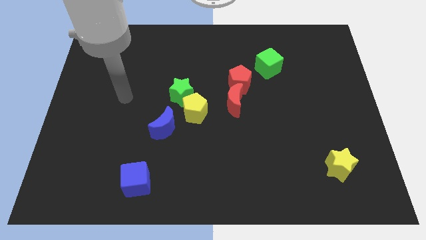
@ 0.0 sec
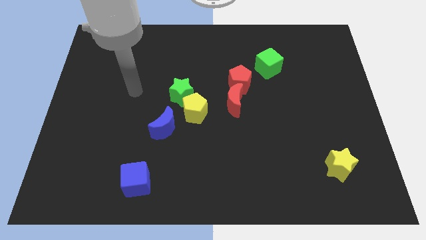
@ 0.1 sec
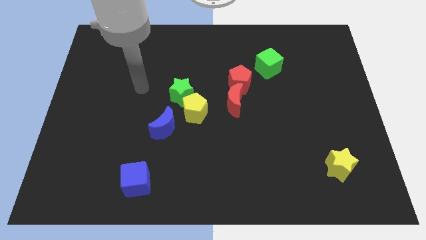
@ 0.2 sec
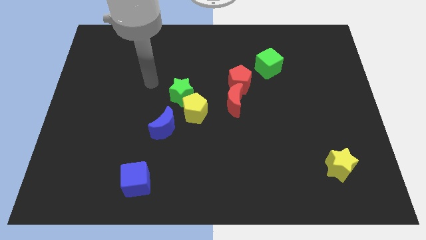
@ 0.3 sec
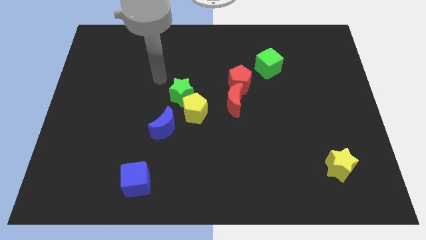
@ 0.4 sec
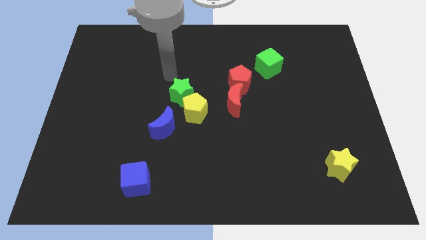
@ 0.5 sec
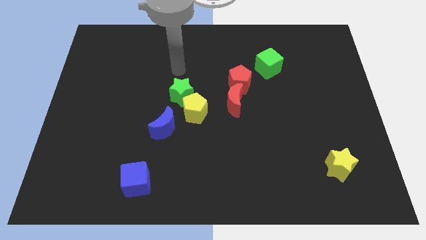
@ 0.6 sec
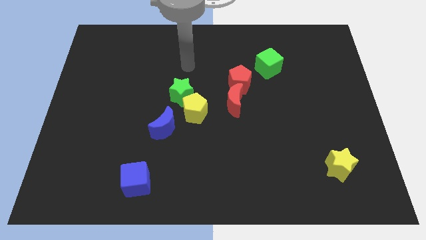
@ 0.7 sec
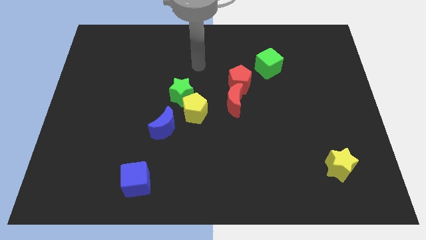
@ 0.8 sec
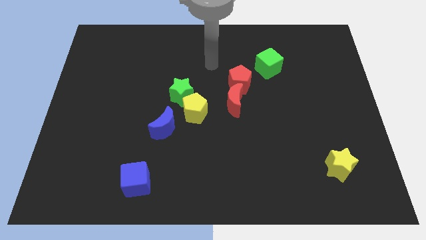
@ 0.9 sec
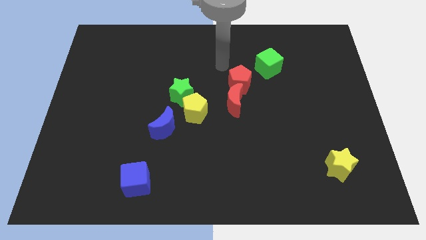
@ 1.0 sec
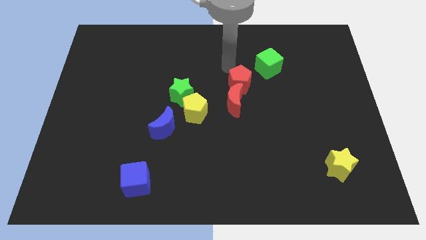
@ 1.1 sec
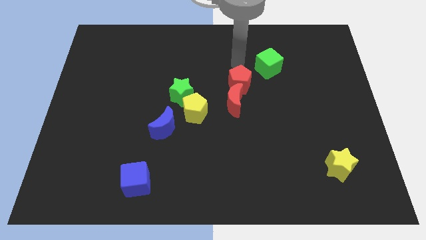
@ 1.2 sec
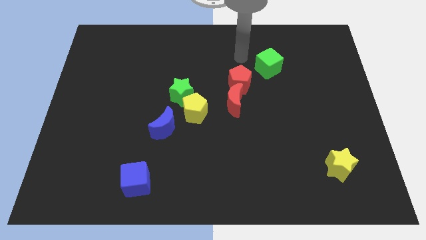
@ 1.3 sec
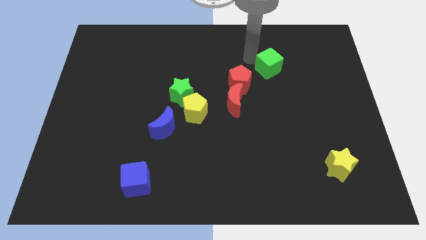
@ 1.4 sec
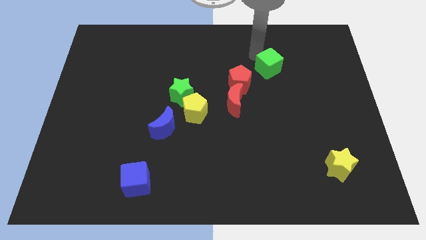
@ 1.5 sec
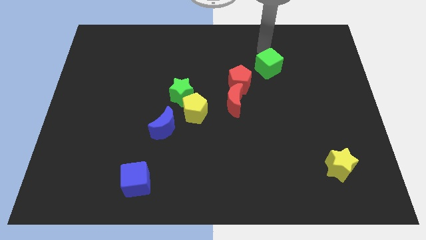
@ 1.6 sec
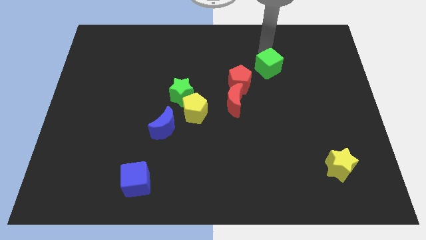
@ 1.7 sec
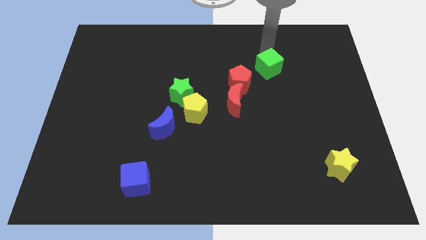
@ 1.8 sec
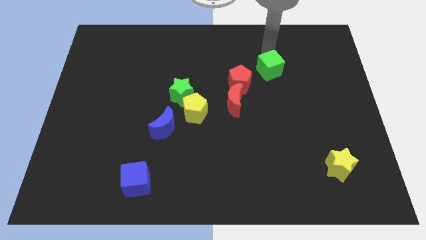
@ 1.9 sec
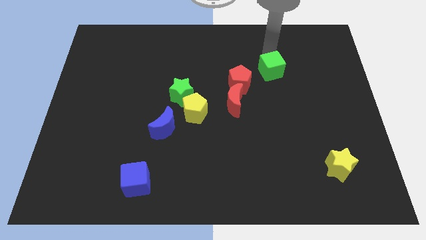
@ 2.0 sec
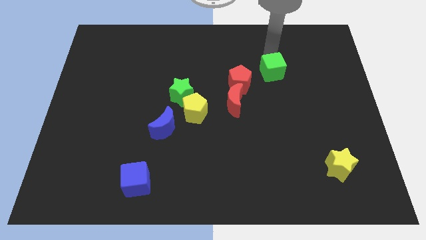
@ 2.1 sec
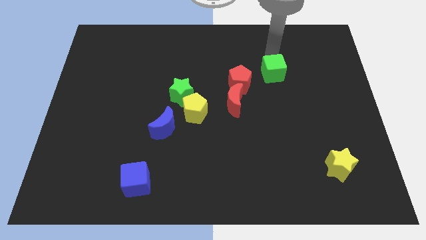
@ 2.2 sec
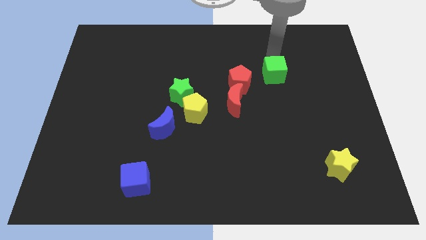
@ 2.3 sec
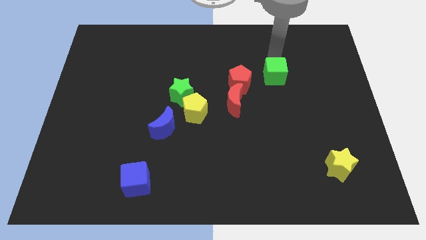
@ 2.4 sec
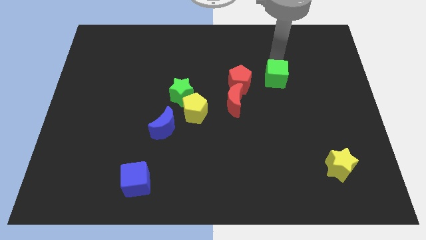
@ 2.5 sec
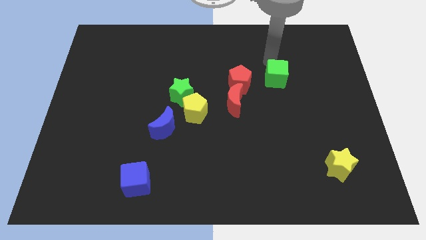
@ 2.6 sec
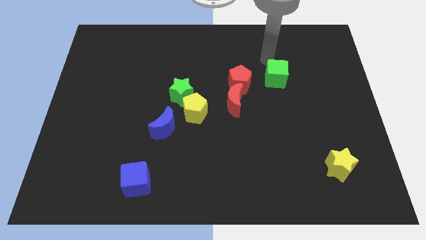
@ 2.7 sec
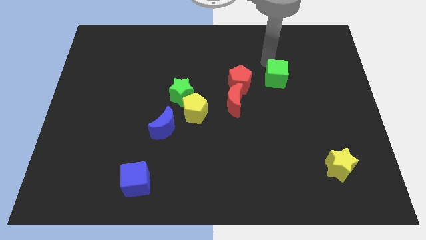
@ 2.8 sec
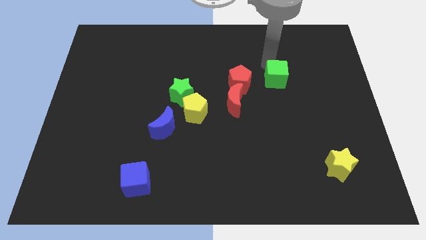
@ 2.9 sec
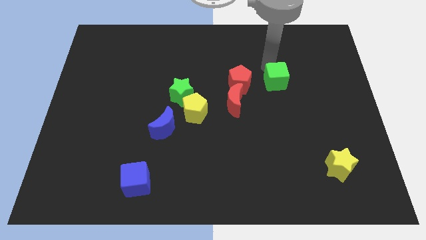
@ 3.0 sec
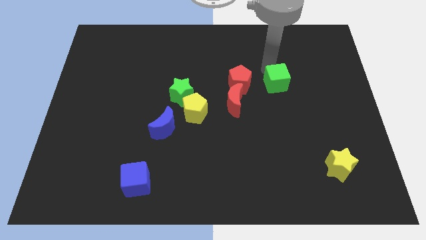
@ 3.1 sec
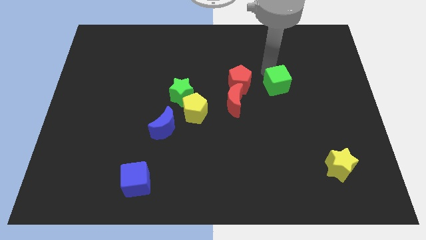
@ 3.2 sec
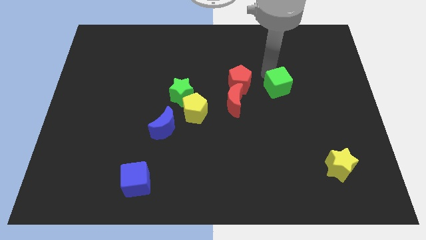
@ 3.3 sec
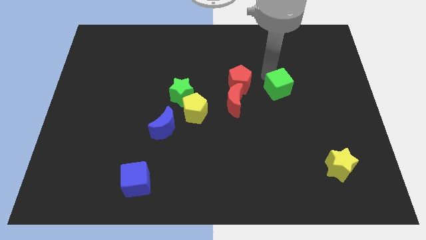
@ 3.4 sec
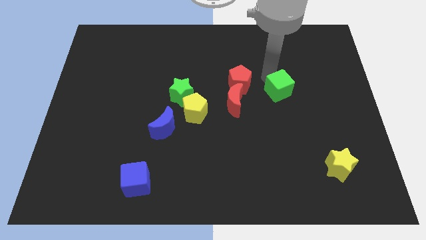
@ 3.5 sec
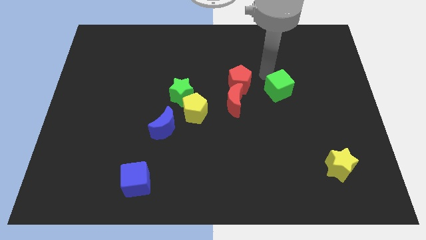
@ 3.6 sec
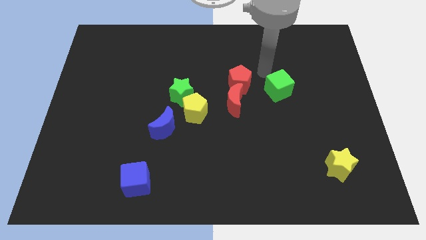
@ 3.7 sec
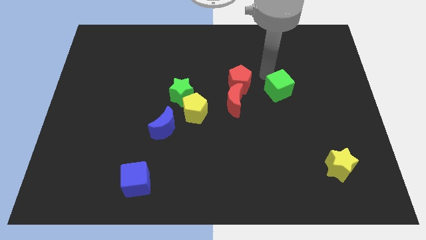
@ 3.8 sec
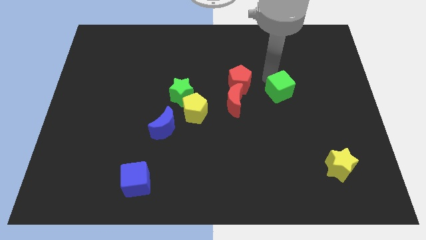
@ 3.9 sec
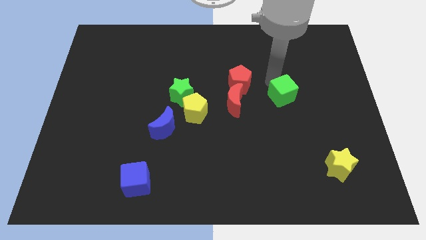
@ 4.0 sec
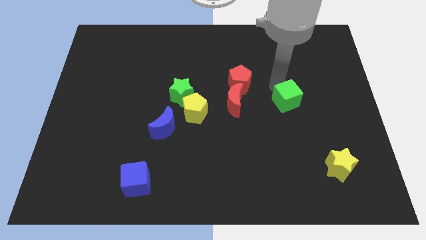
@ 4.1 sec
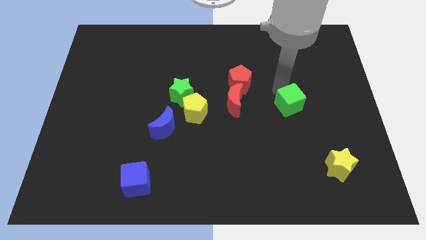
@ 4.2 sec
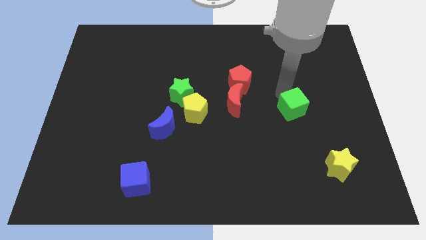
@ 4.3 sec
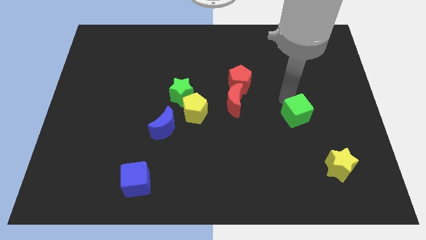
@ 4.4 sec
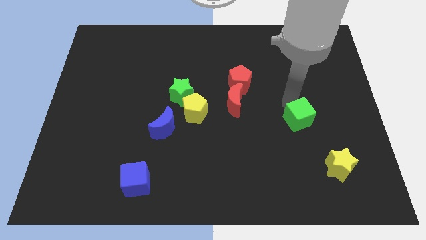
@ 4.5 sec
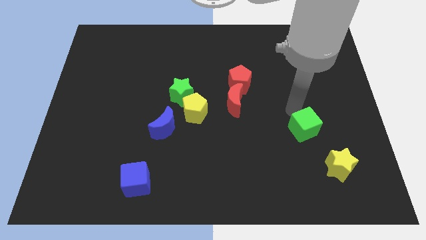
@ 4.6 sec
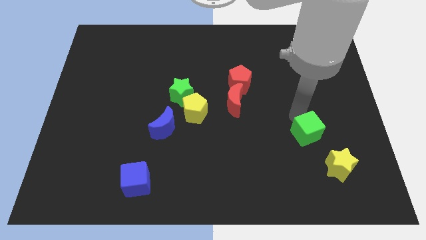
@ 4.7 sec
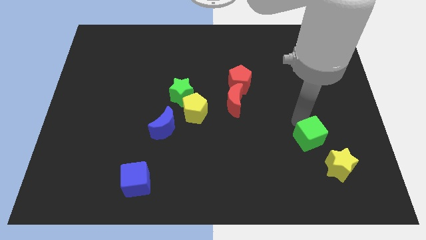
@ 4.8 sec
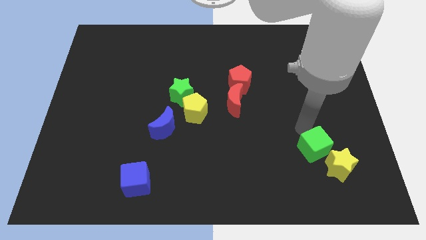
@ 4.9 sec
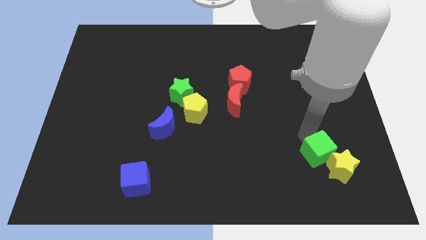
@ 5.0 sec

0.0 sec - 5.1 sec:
move the green cube close to the yellow star

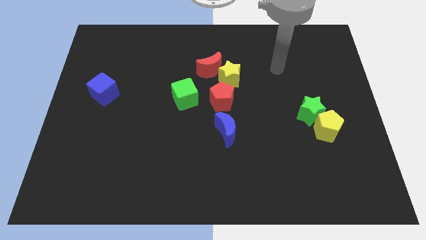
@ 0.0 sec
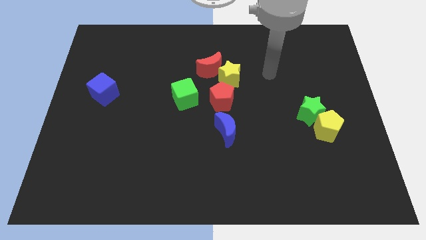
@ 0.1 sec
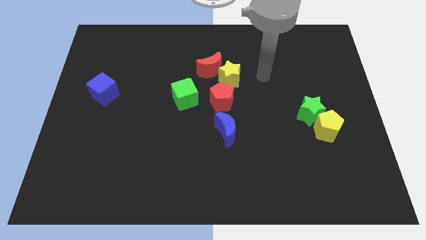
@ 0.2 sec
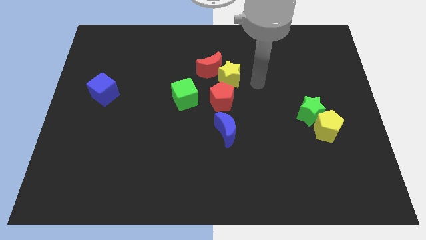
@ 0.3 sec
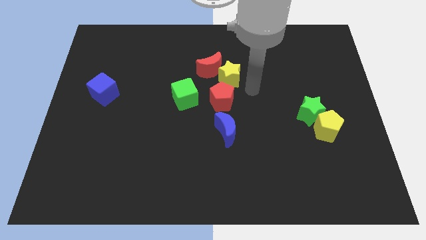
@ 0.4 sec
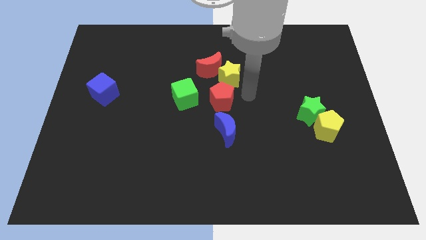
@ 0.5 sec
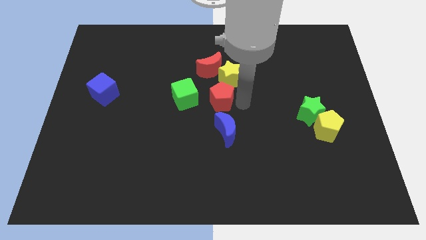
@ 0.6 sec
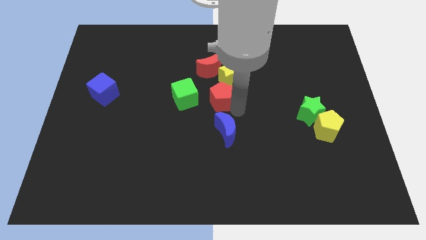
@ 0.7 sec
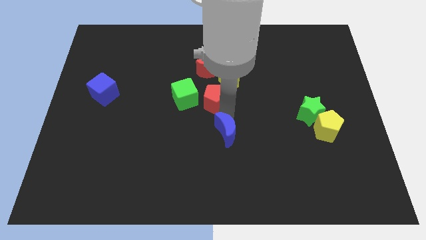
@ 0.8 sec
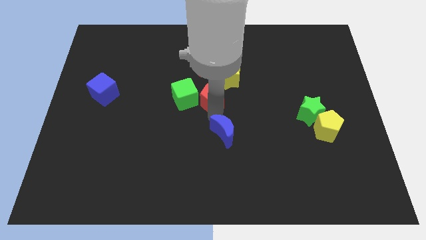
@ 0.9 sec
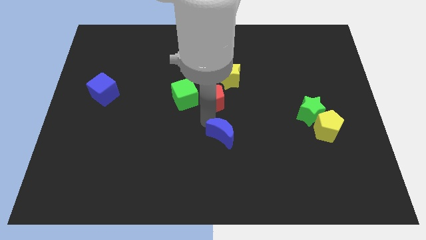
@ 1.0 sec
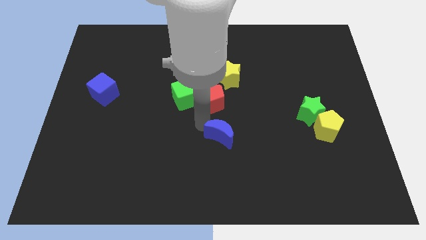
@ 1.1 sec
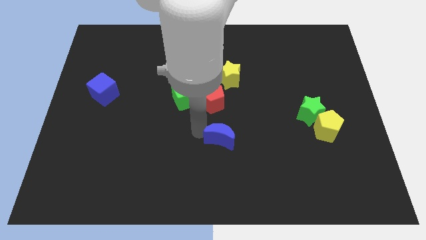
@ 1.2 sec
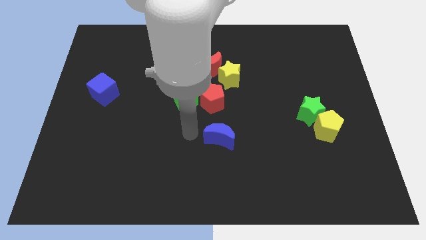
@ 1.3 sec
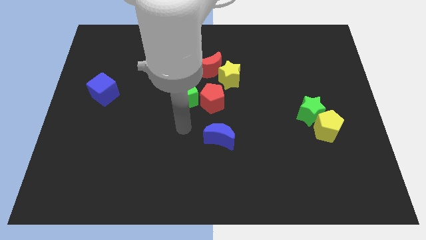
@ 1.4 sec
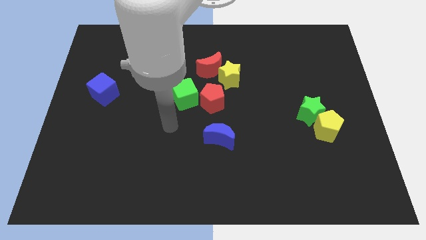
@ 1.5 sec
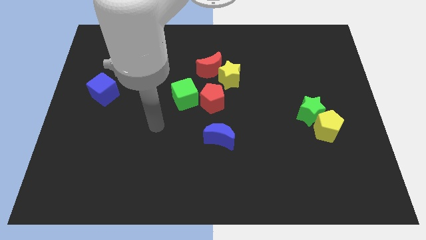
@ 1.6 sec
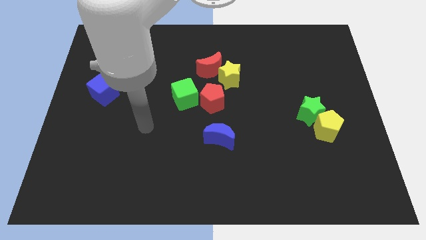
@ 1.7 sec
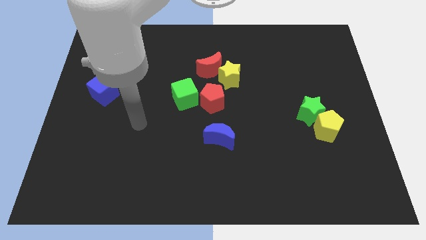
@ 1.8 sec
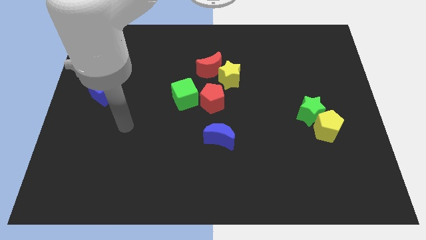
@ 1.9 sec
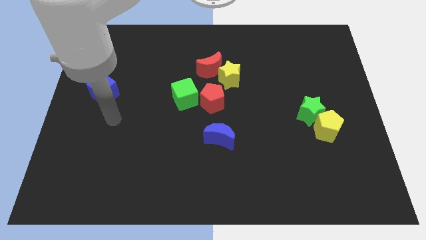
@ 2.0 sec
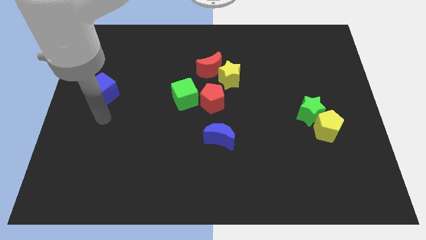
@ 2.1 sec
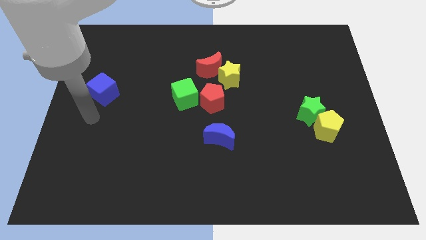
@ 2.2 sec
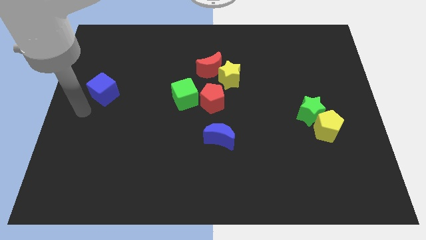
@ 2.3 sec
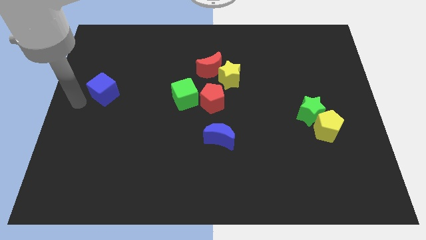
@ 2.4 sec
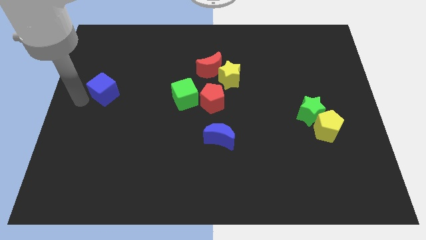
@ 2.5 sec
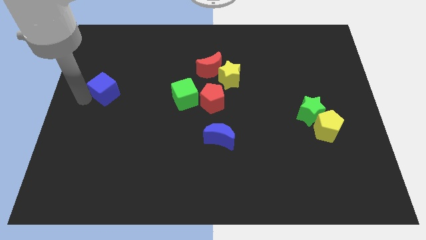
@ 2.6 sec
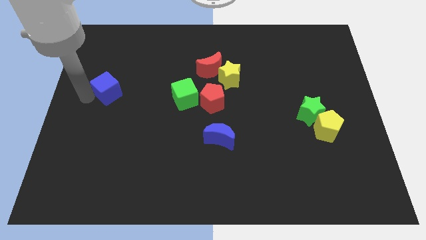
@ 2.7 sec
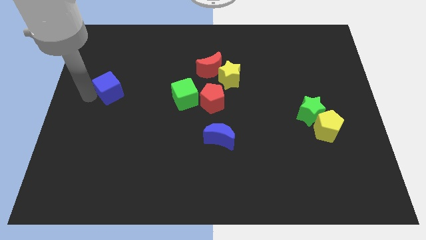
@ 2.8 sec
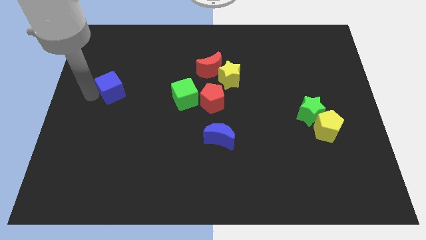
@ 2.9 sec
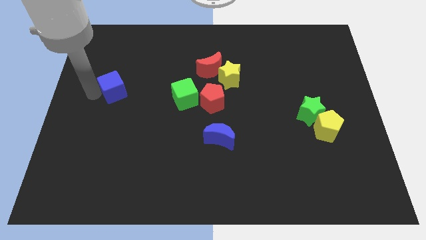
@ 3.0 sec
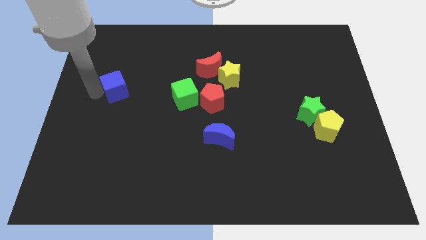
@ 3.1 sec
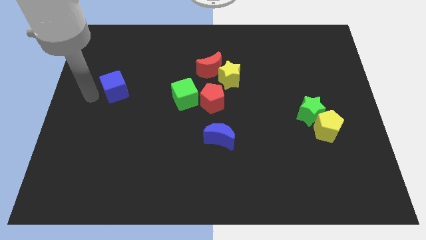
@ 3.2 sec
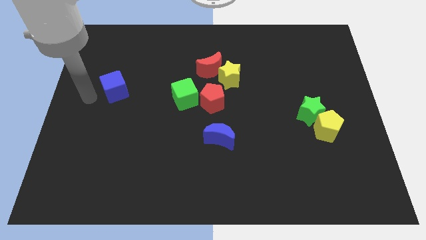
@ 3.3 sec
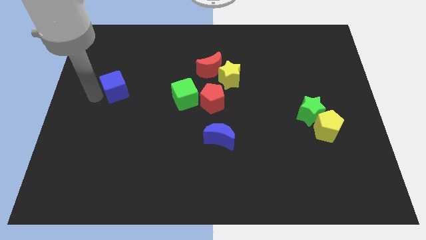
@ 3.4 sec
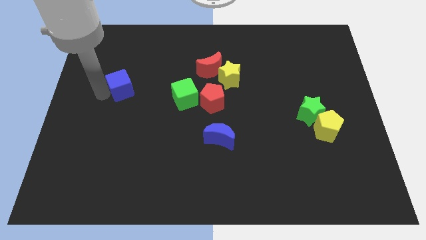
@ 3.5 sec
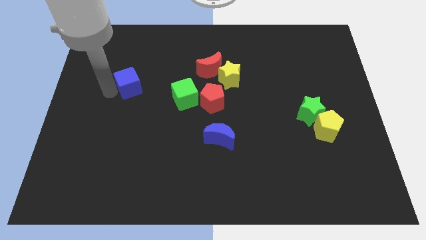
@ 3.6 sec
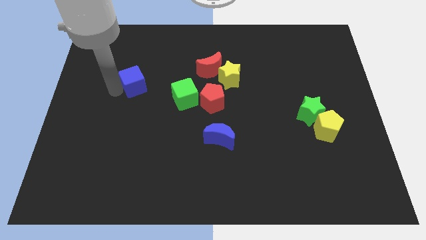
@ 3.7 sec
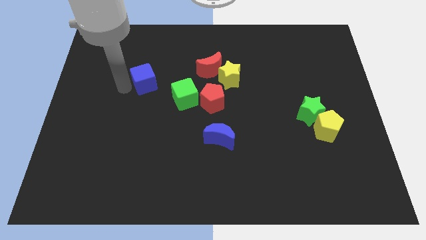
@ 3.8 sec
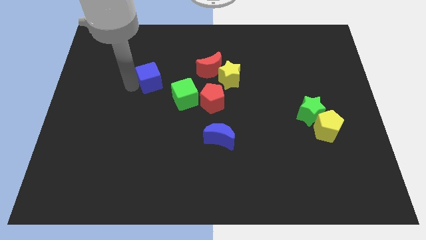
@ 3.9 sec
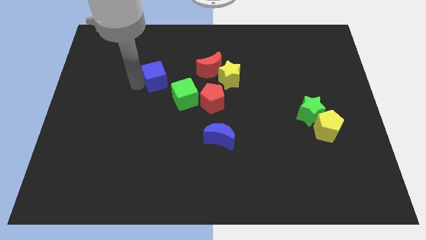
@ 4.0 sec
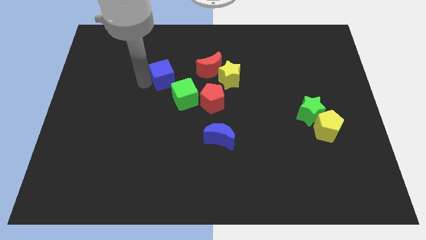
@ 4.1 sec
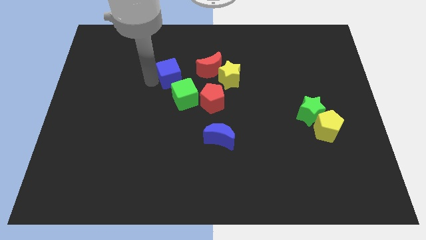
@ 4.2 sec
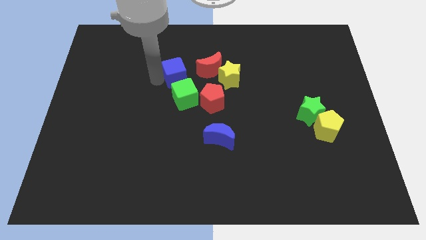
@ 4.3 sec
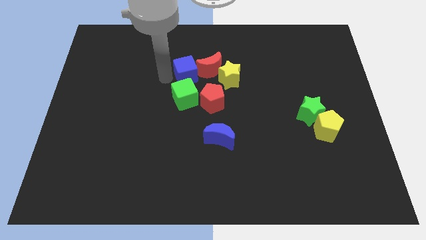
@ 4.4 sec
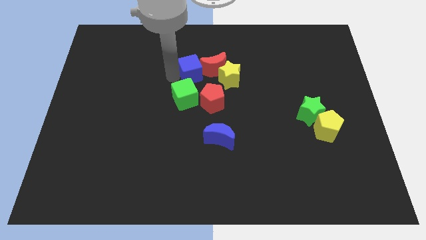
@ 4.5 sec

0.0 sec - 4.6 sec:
push the blue cube to the red moon
